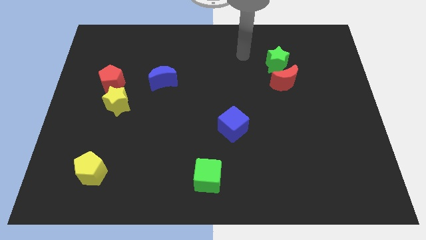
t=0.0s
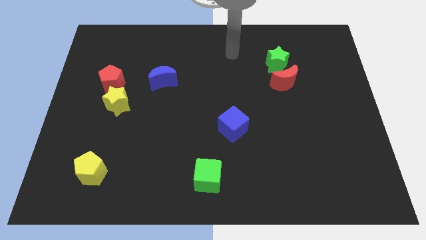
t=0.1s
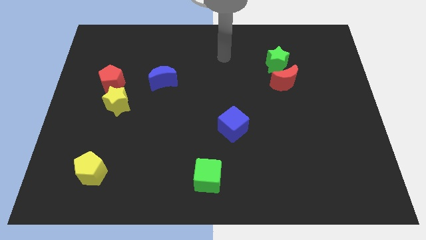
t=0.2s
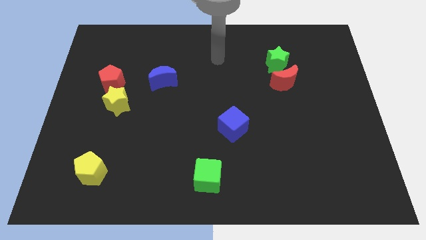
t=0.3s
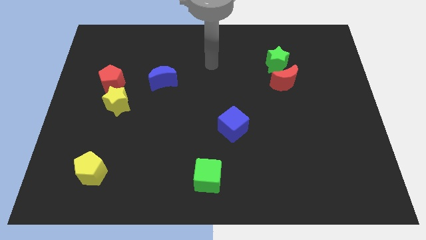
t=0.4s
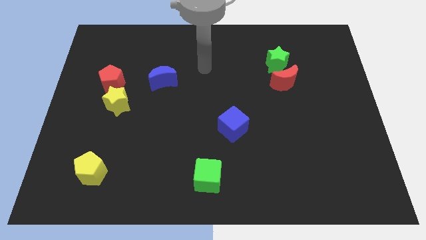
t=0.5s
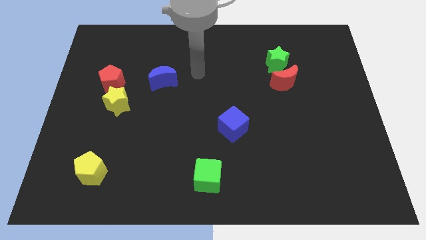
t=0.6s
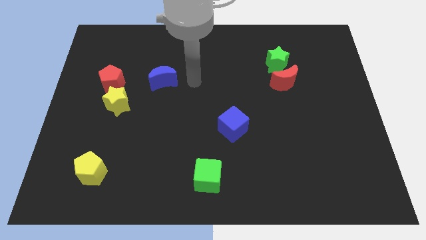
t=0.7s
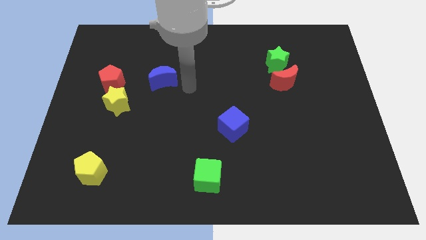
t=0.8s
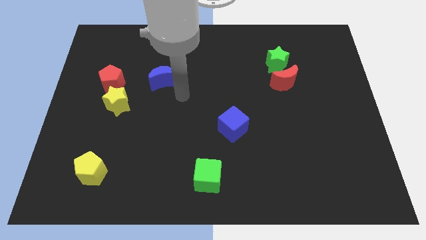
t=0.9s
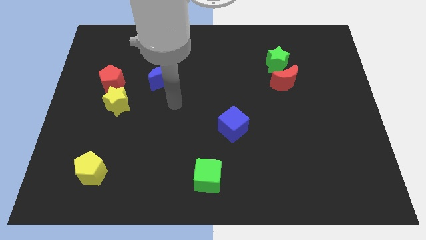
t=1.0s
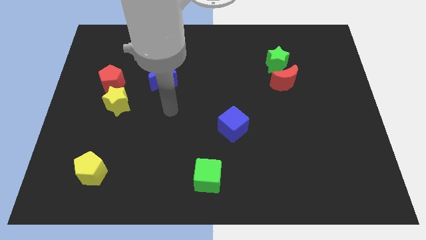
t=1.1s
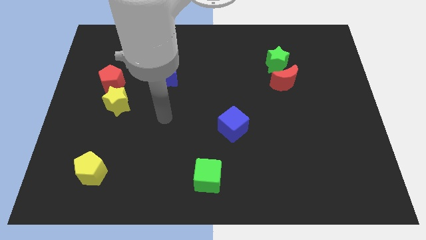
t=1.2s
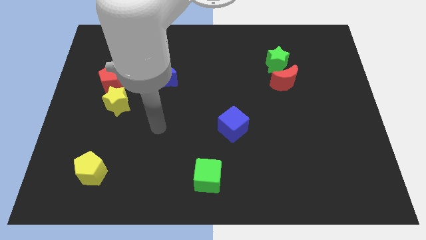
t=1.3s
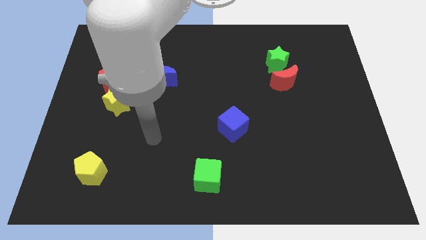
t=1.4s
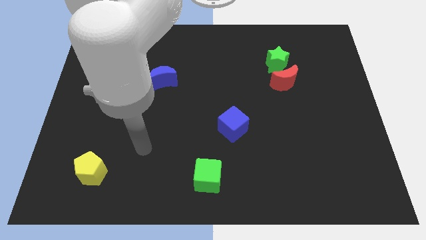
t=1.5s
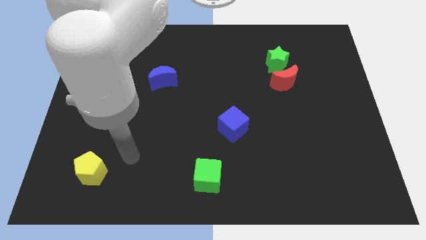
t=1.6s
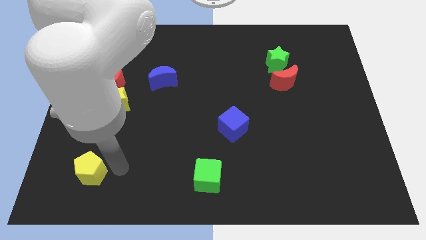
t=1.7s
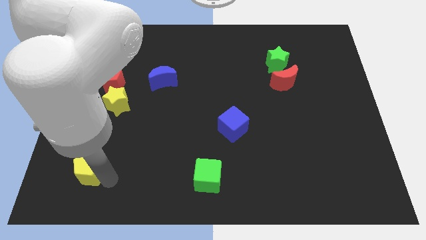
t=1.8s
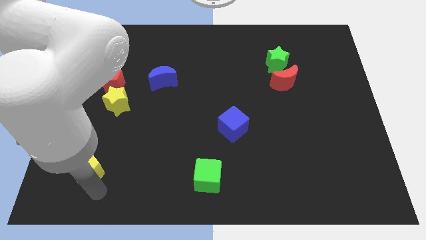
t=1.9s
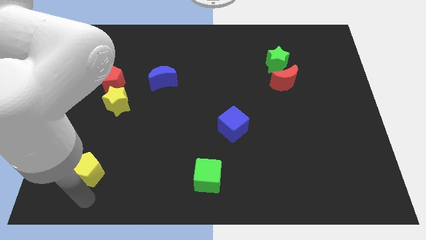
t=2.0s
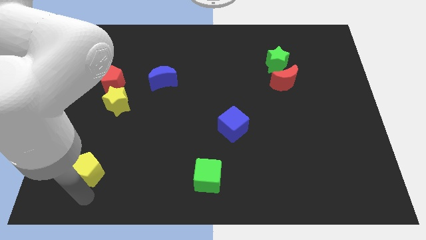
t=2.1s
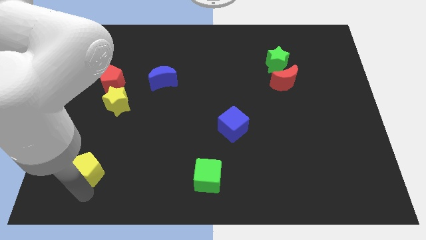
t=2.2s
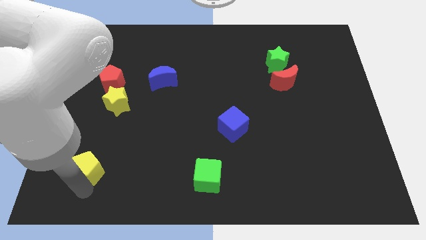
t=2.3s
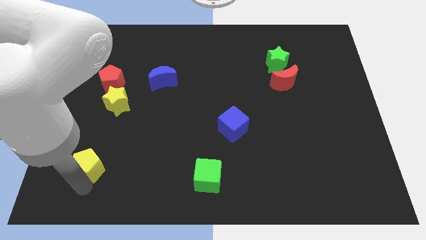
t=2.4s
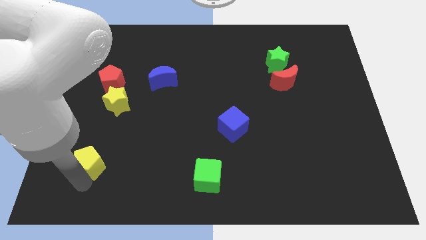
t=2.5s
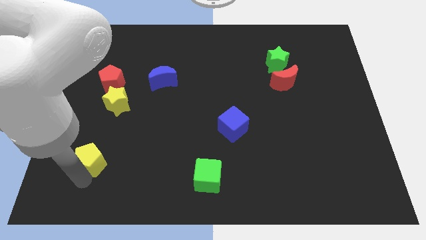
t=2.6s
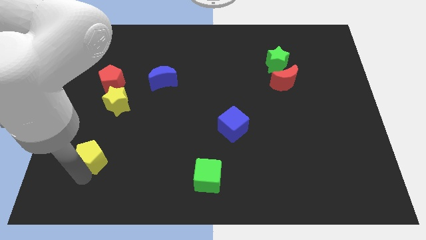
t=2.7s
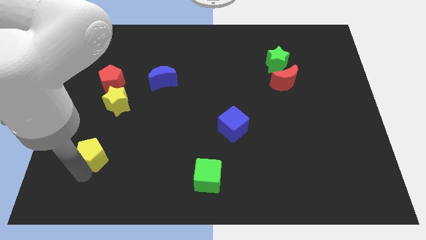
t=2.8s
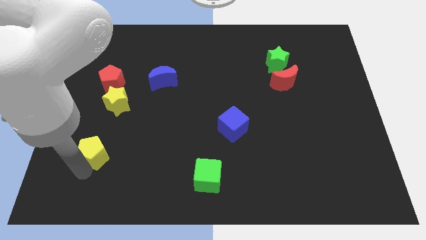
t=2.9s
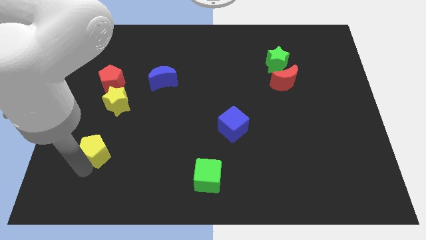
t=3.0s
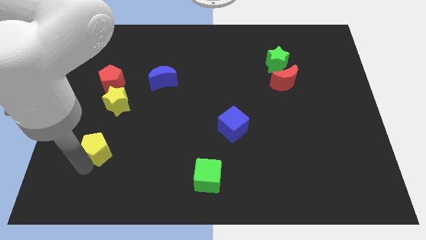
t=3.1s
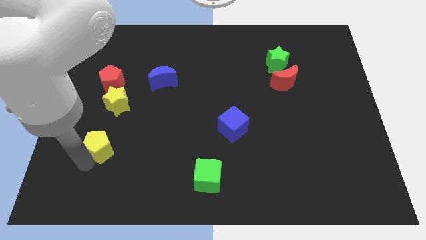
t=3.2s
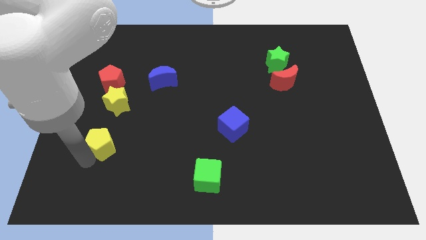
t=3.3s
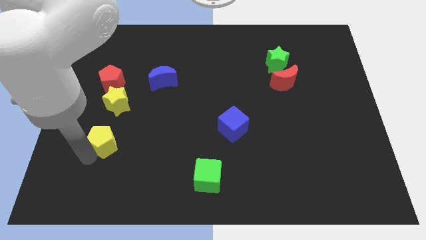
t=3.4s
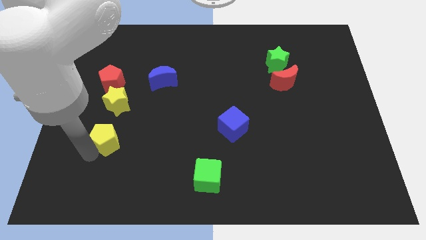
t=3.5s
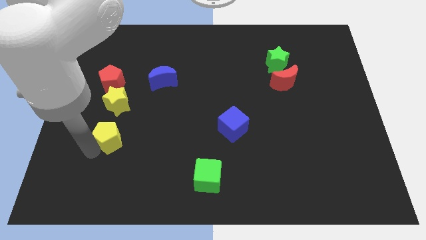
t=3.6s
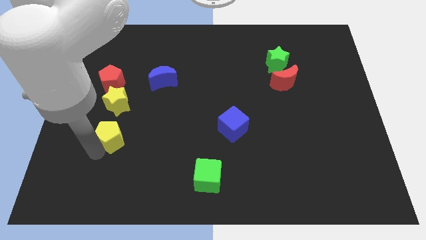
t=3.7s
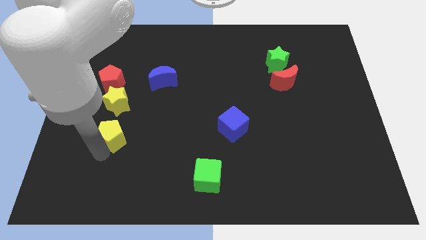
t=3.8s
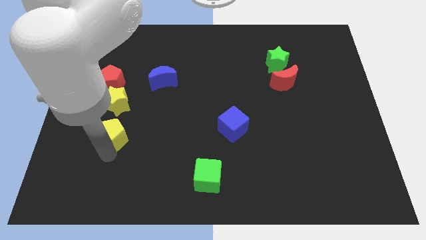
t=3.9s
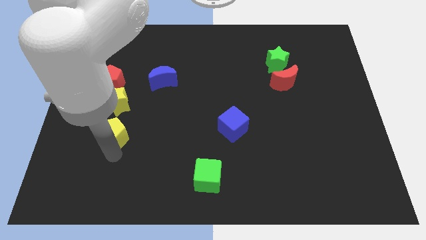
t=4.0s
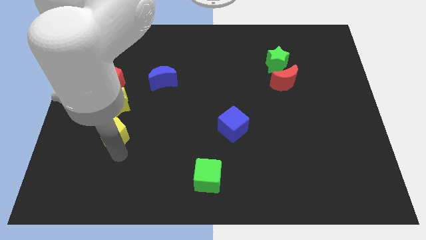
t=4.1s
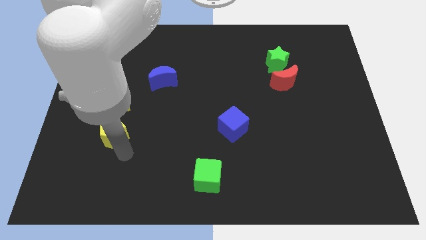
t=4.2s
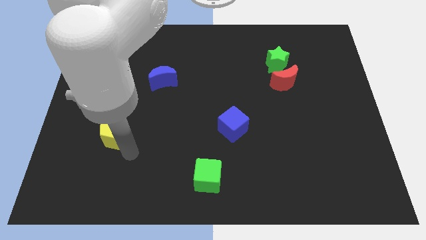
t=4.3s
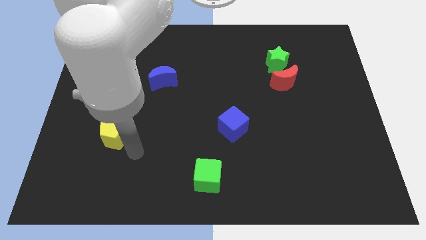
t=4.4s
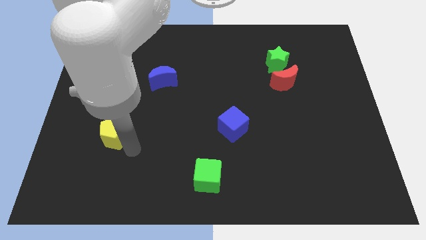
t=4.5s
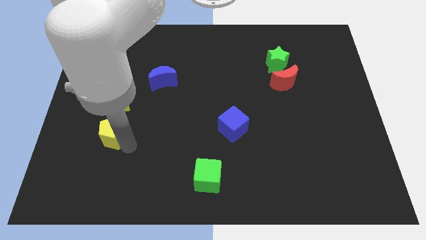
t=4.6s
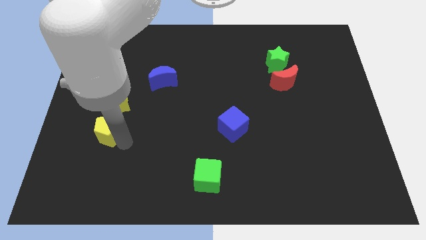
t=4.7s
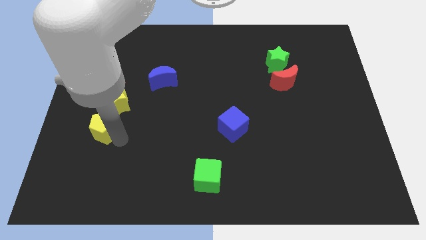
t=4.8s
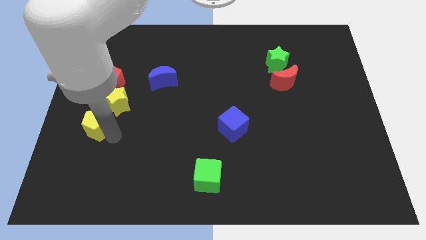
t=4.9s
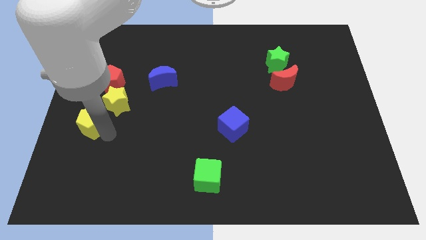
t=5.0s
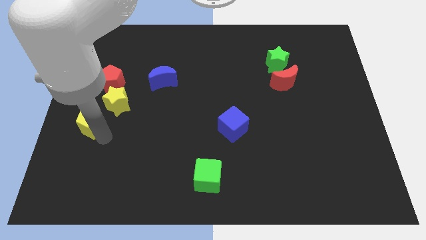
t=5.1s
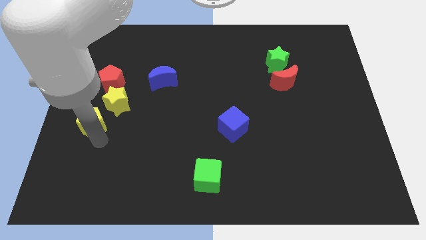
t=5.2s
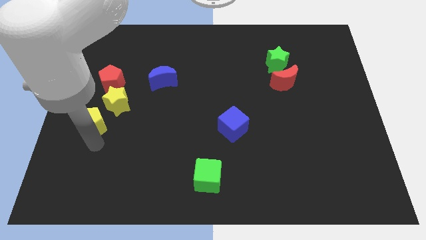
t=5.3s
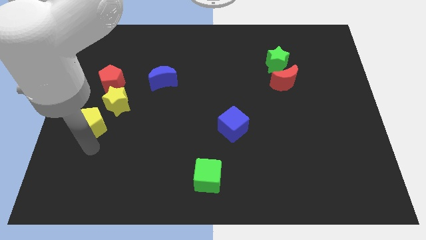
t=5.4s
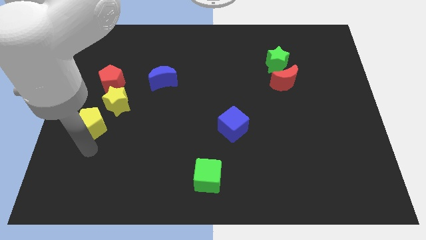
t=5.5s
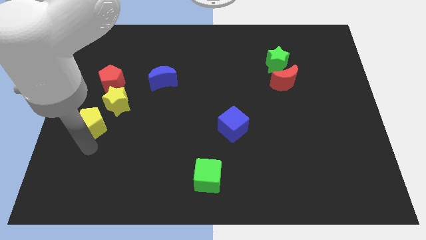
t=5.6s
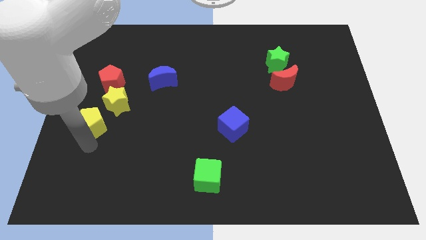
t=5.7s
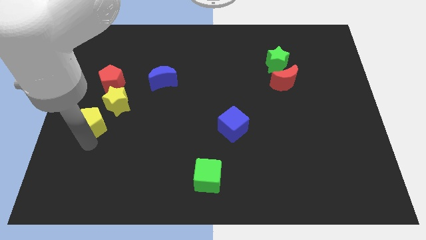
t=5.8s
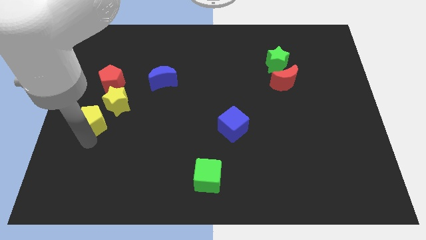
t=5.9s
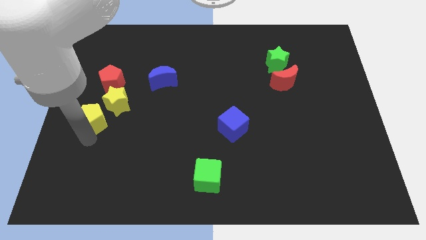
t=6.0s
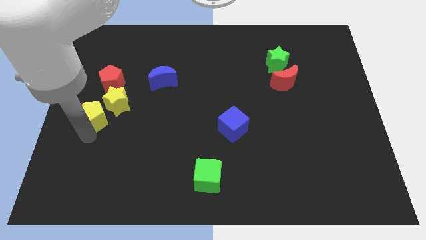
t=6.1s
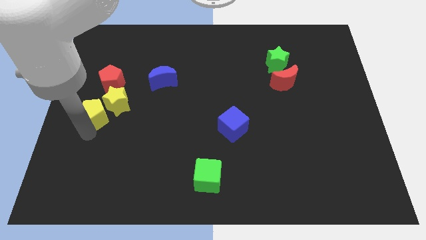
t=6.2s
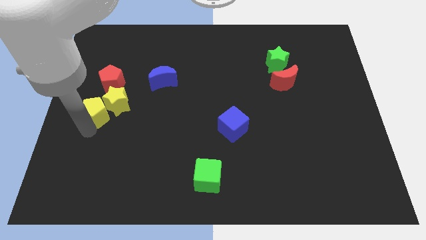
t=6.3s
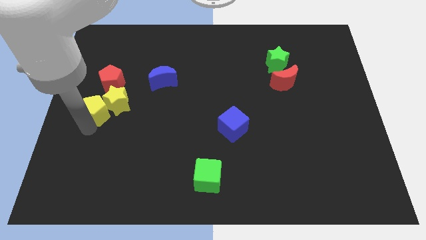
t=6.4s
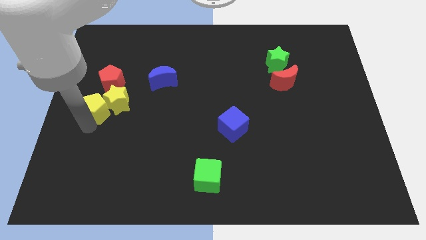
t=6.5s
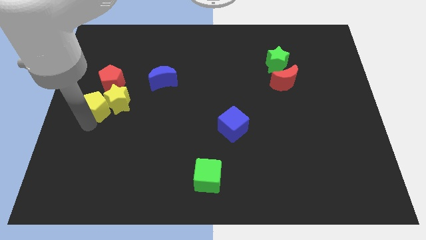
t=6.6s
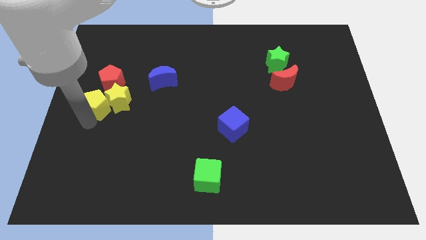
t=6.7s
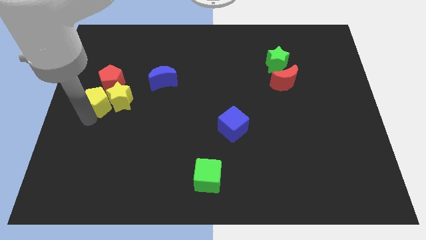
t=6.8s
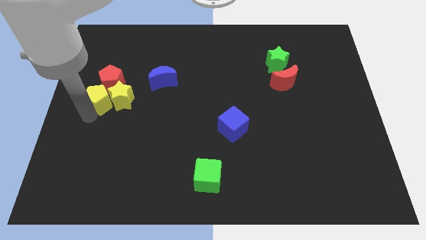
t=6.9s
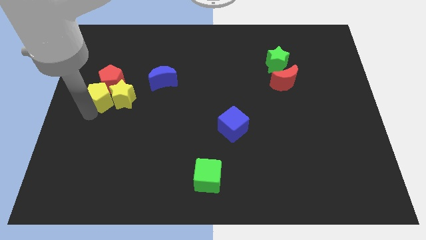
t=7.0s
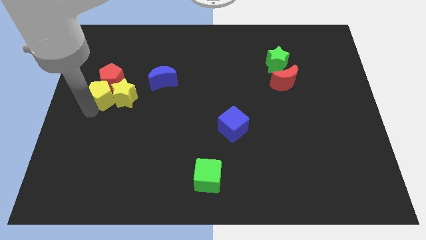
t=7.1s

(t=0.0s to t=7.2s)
move the yellow pentagon upwards

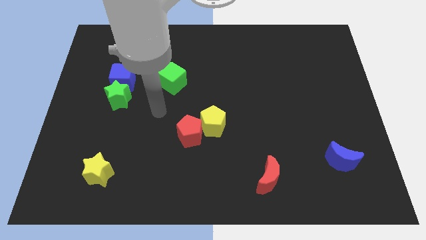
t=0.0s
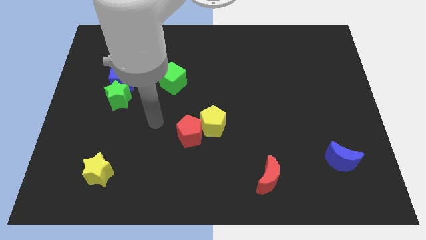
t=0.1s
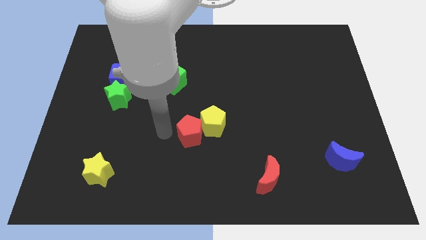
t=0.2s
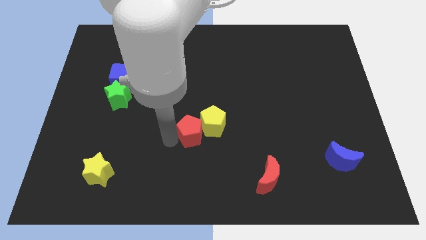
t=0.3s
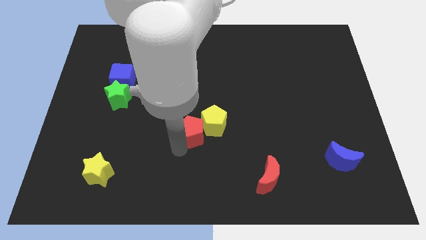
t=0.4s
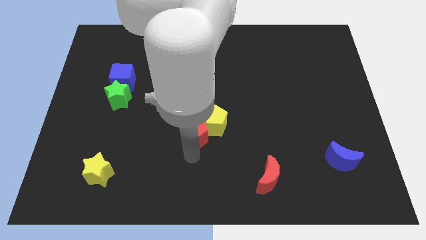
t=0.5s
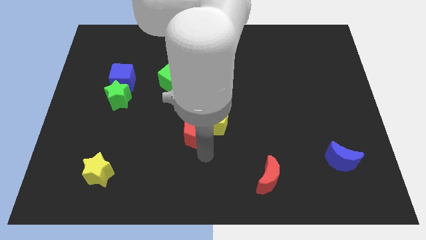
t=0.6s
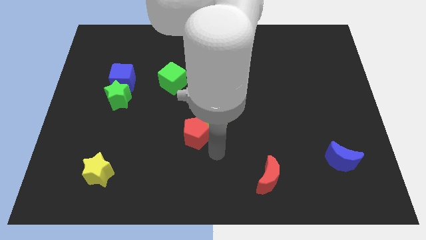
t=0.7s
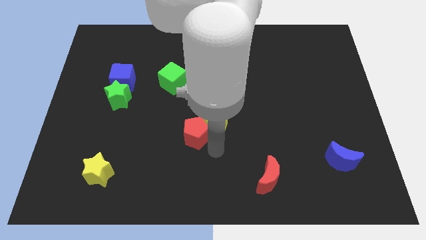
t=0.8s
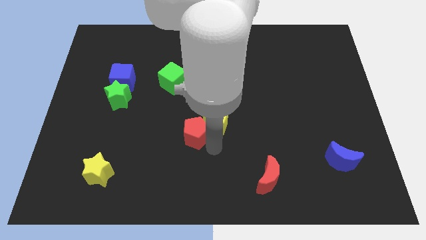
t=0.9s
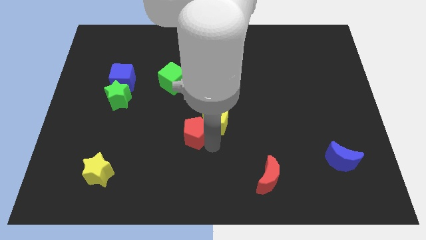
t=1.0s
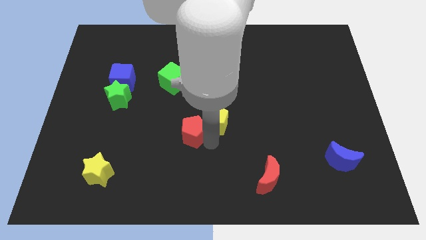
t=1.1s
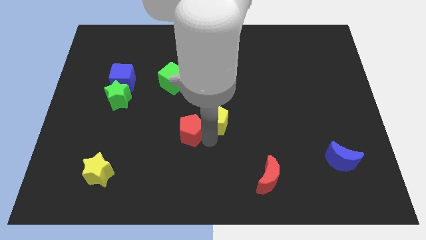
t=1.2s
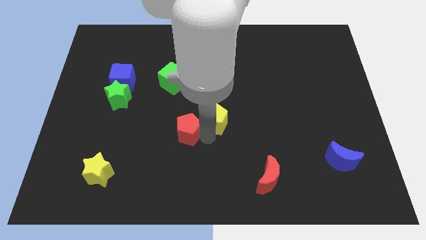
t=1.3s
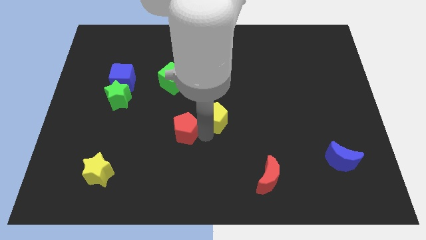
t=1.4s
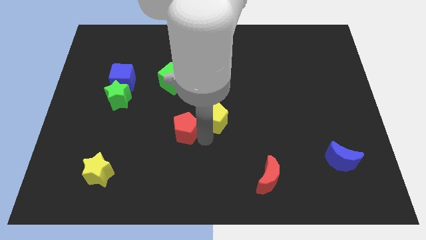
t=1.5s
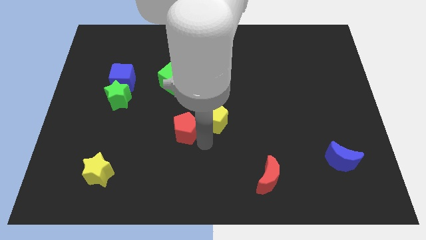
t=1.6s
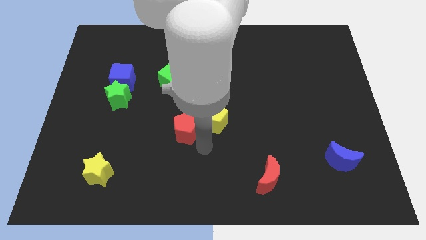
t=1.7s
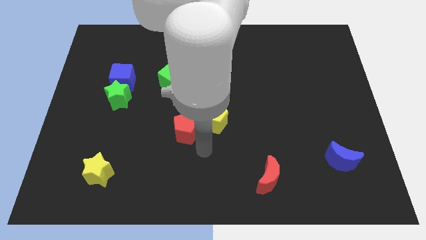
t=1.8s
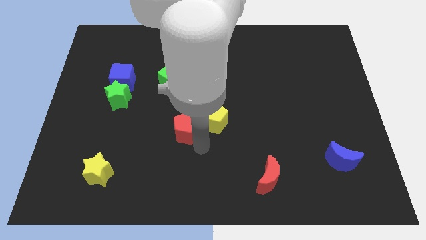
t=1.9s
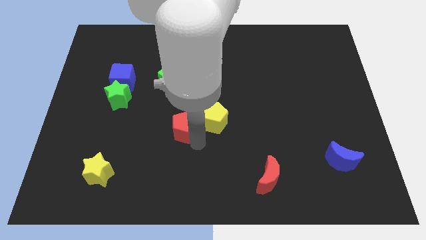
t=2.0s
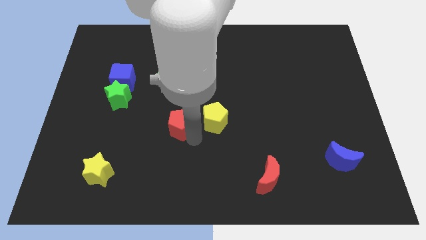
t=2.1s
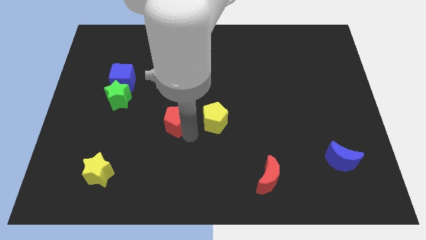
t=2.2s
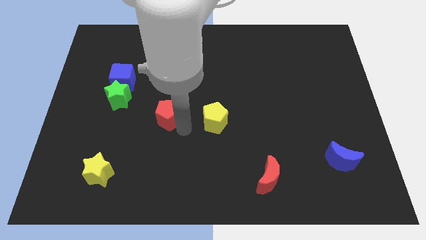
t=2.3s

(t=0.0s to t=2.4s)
push the red pentagon a bit up and then left
